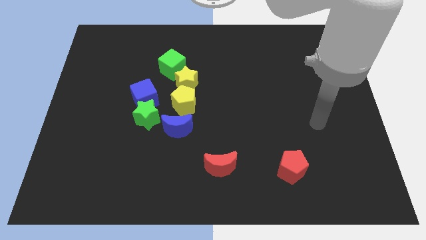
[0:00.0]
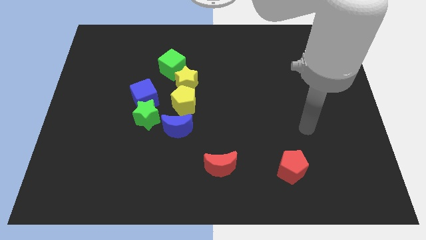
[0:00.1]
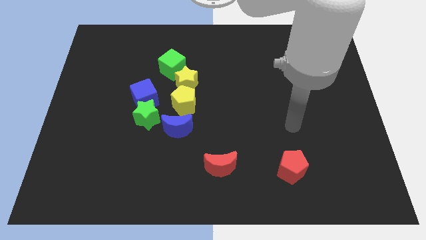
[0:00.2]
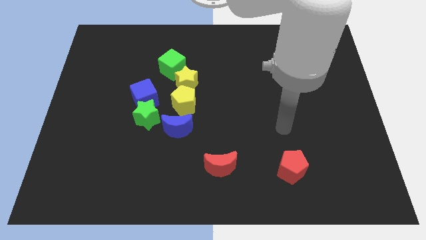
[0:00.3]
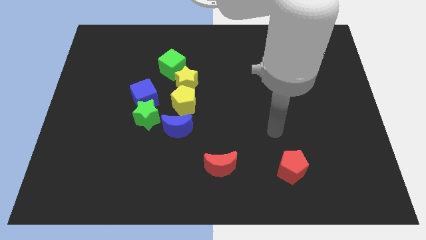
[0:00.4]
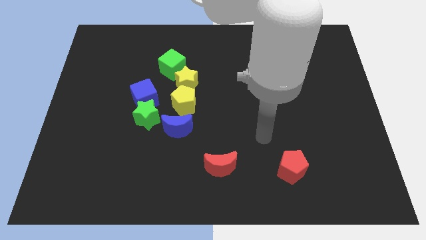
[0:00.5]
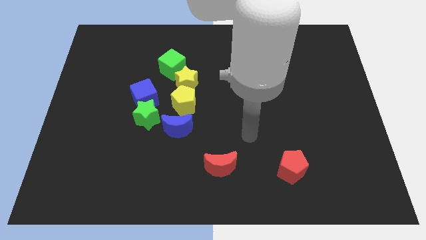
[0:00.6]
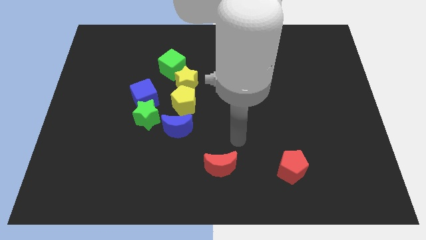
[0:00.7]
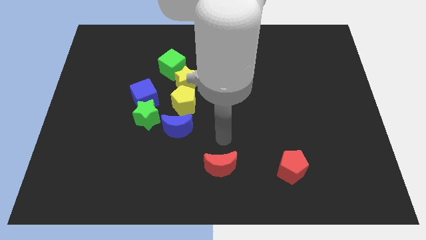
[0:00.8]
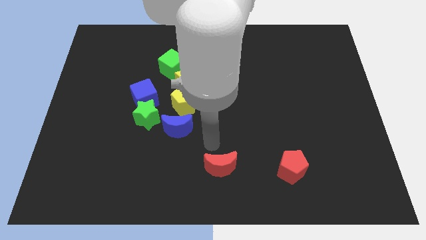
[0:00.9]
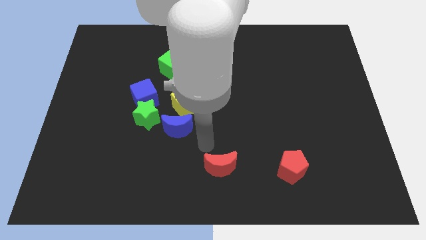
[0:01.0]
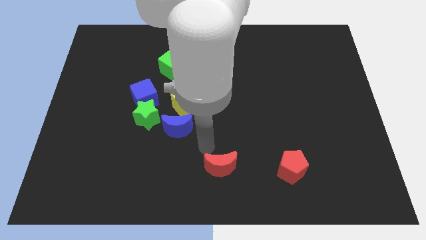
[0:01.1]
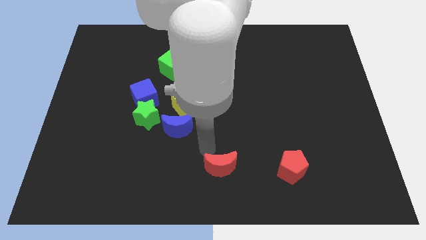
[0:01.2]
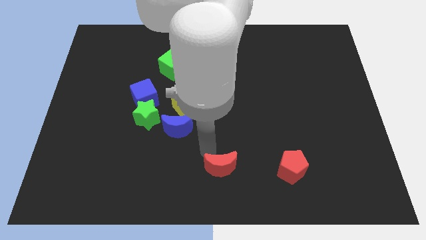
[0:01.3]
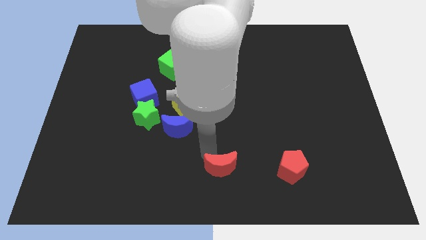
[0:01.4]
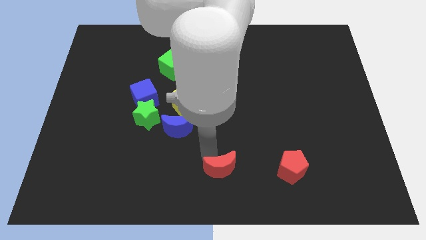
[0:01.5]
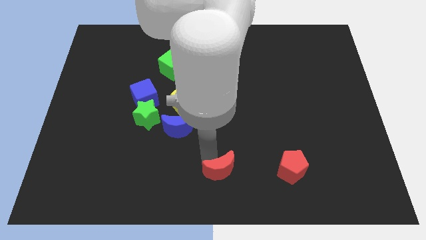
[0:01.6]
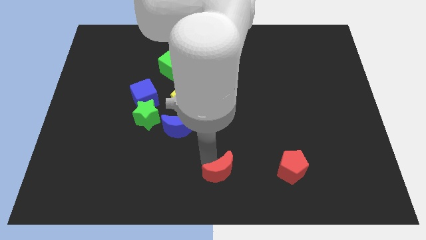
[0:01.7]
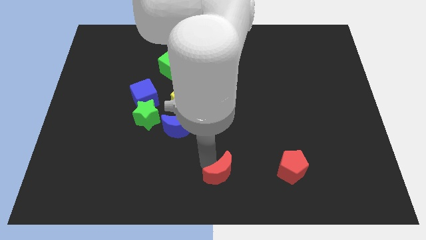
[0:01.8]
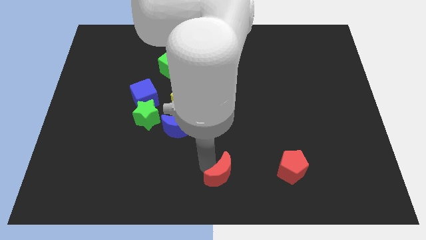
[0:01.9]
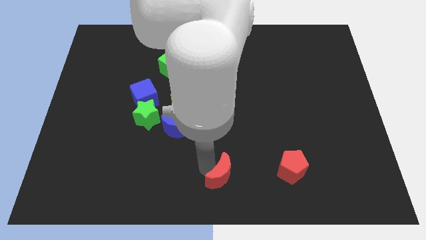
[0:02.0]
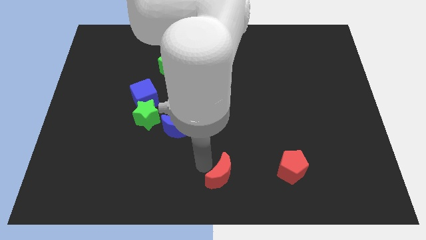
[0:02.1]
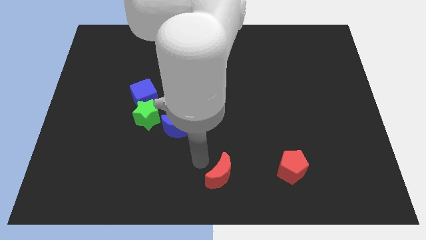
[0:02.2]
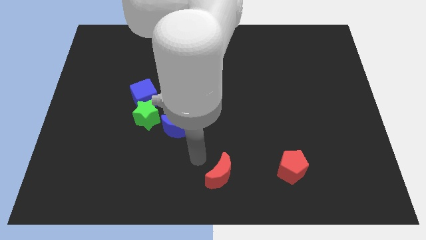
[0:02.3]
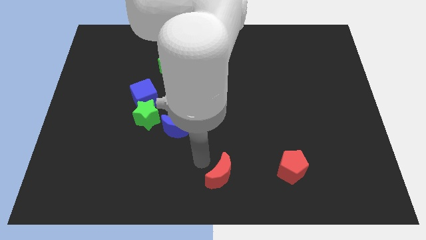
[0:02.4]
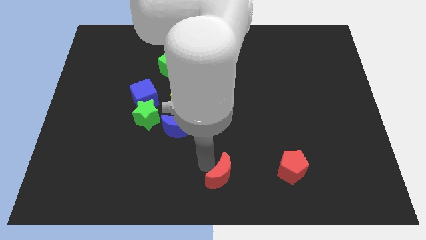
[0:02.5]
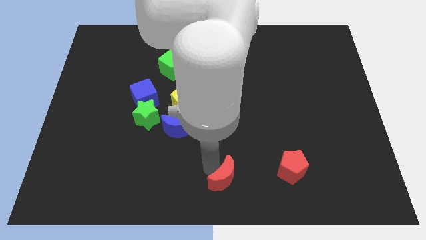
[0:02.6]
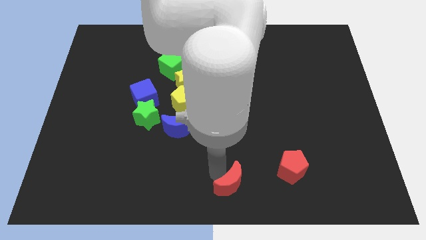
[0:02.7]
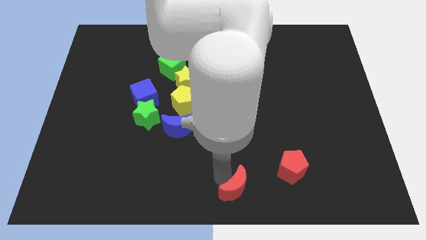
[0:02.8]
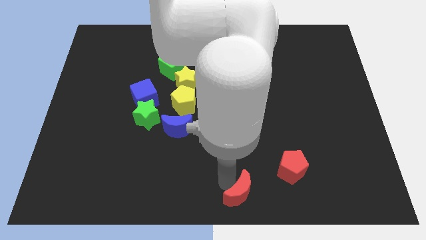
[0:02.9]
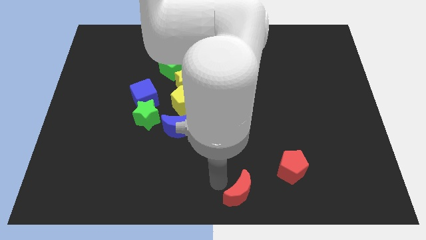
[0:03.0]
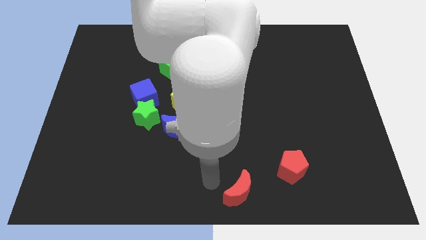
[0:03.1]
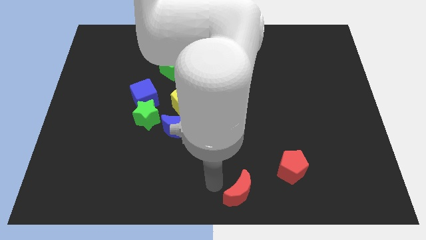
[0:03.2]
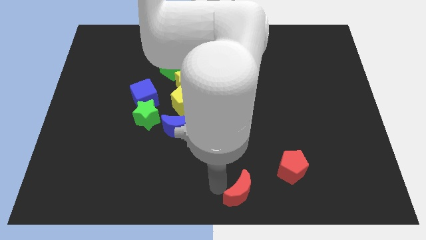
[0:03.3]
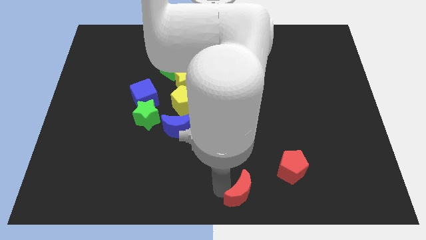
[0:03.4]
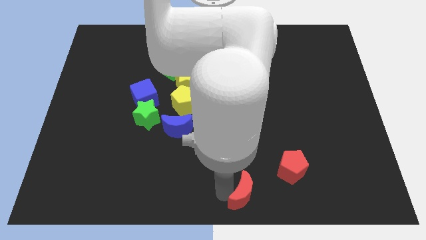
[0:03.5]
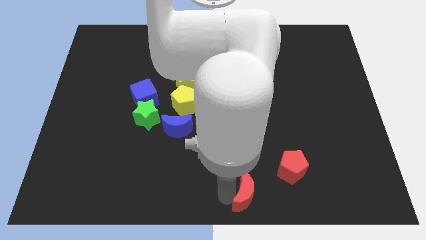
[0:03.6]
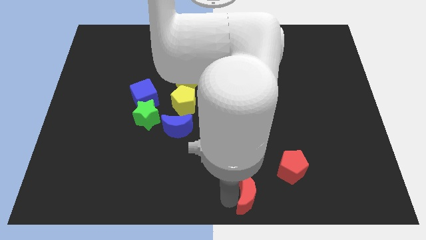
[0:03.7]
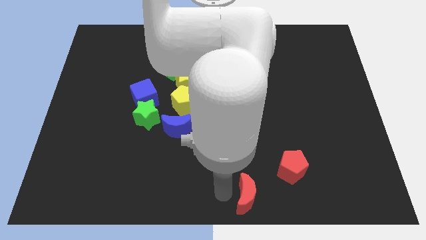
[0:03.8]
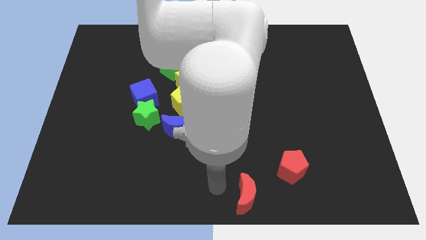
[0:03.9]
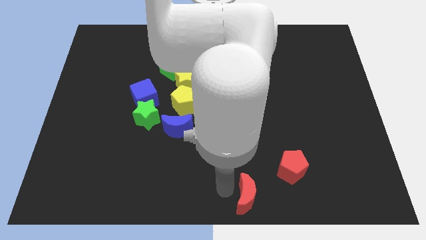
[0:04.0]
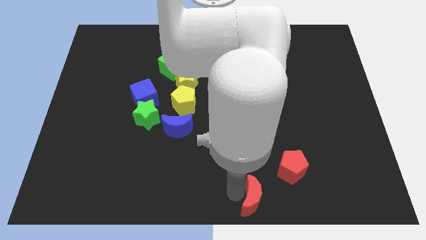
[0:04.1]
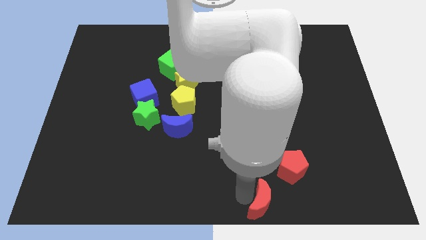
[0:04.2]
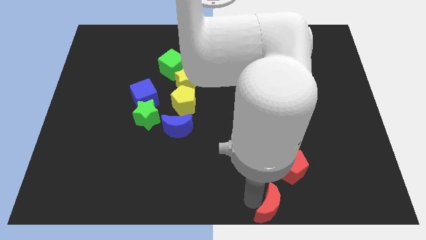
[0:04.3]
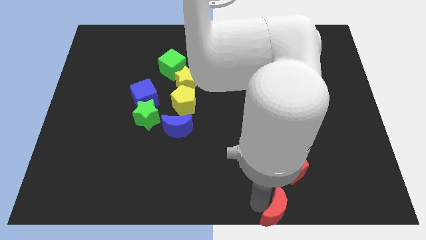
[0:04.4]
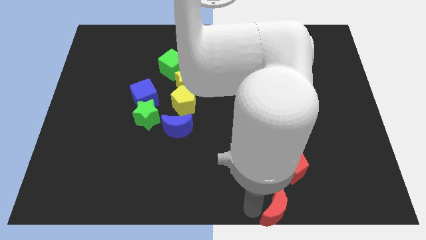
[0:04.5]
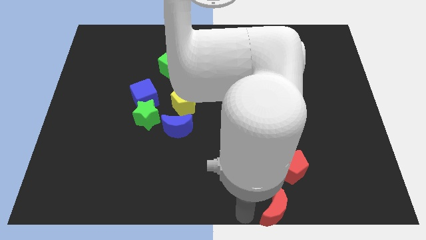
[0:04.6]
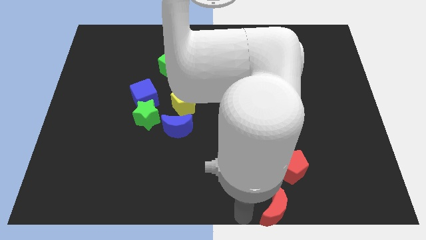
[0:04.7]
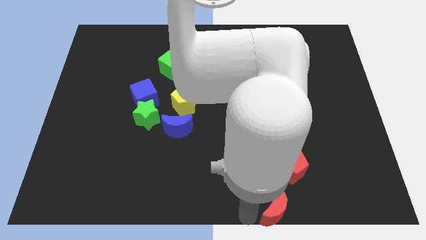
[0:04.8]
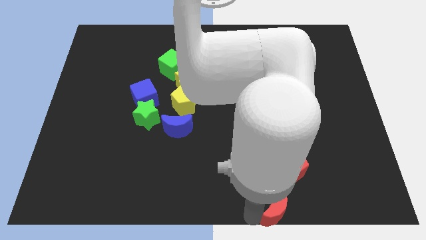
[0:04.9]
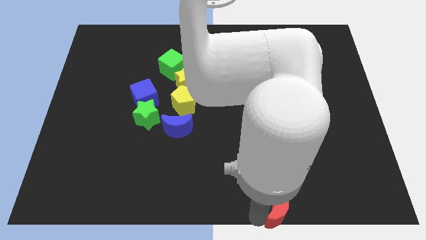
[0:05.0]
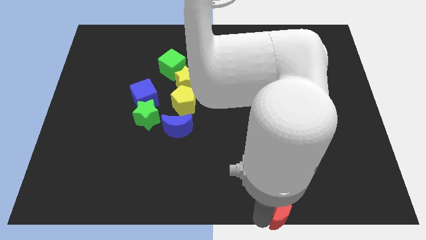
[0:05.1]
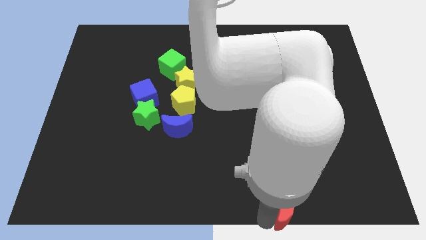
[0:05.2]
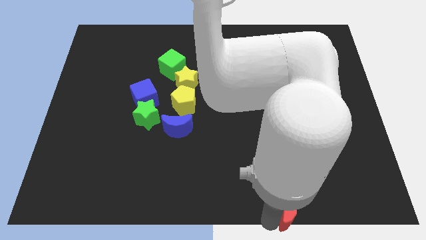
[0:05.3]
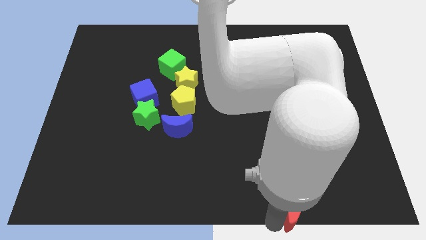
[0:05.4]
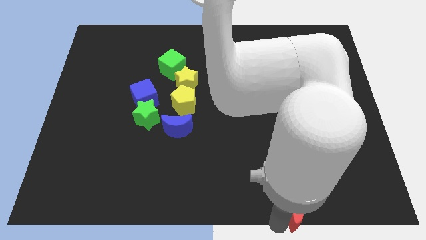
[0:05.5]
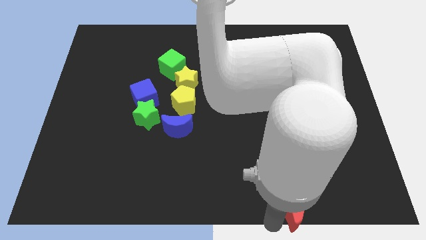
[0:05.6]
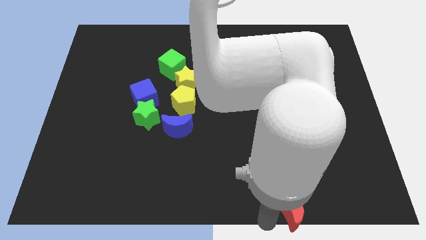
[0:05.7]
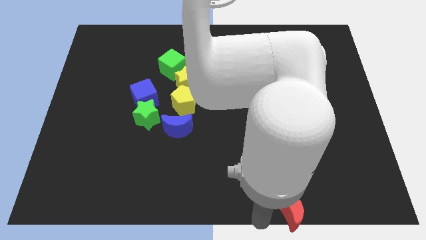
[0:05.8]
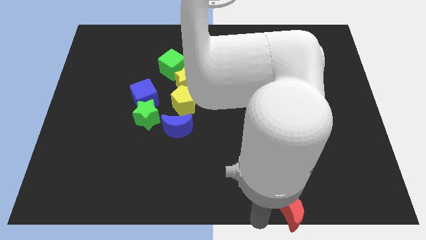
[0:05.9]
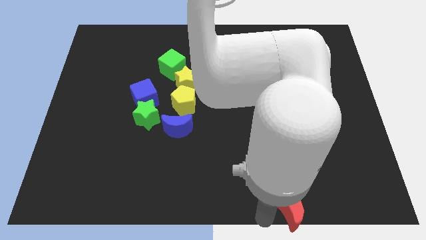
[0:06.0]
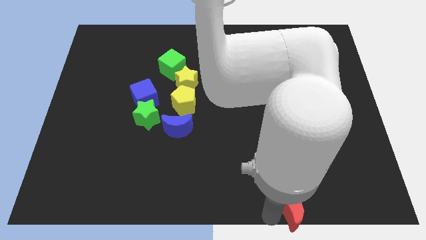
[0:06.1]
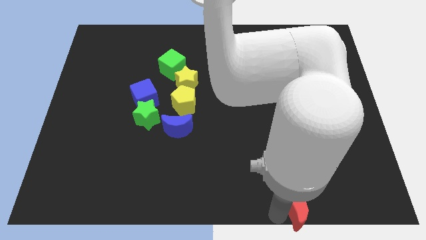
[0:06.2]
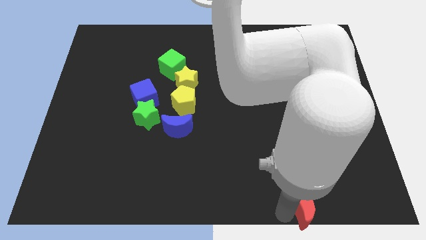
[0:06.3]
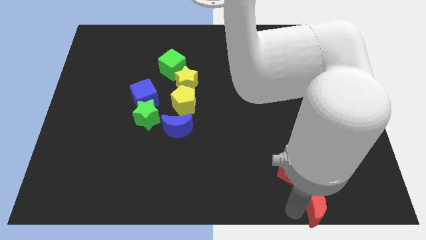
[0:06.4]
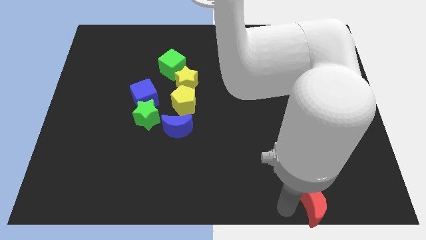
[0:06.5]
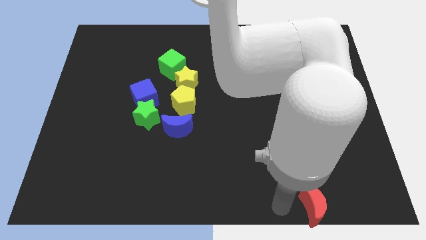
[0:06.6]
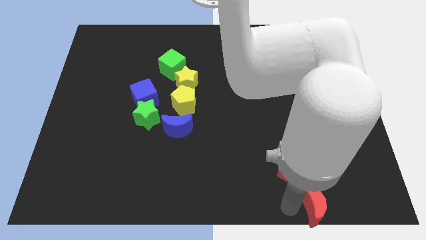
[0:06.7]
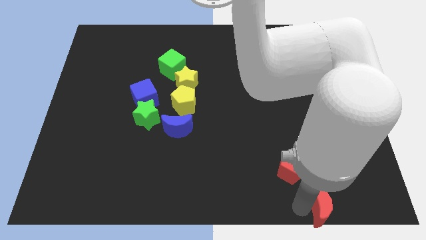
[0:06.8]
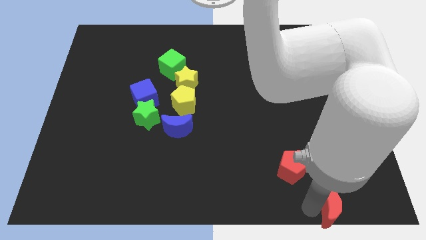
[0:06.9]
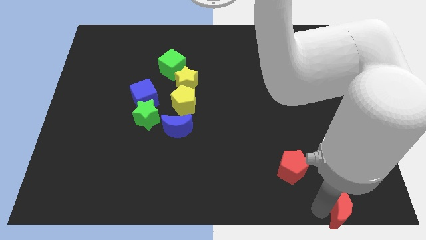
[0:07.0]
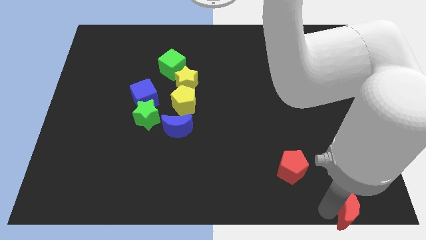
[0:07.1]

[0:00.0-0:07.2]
push the red moon to the lower right corner
